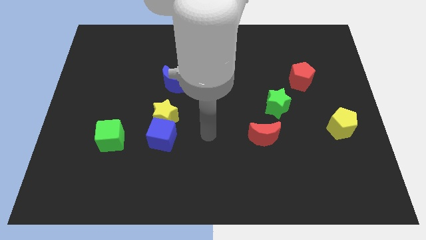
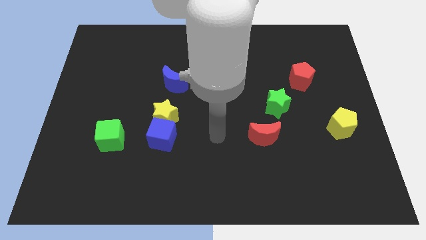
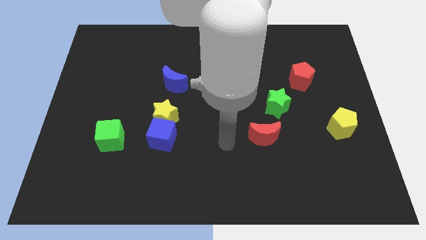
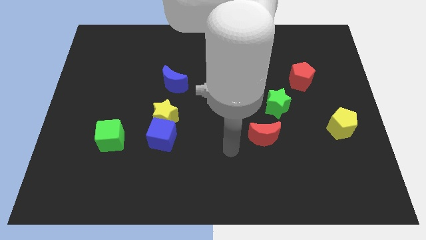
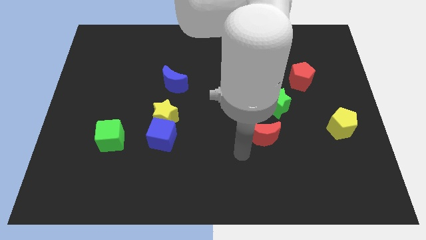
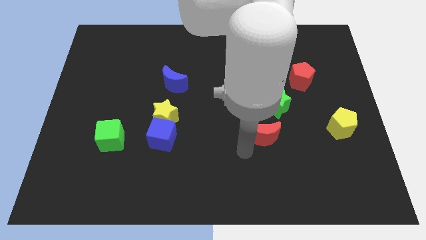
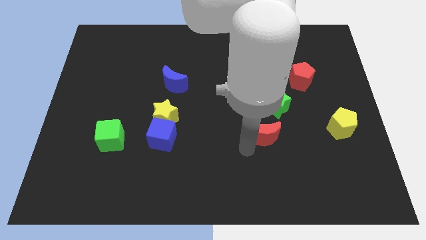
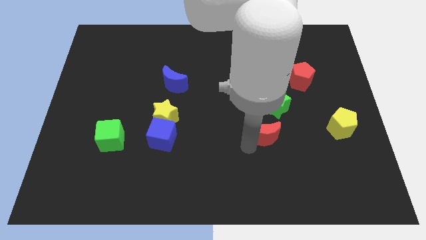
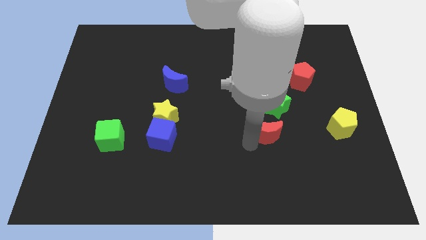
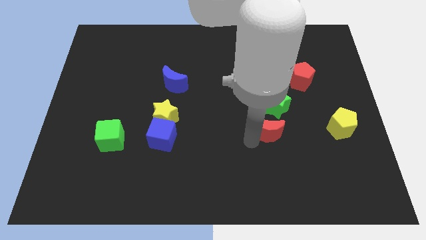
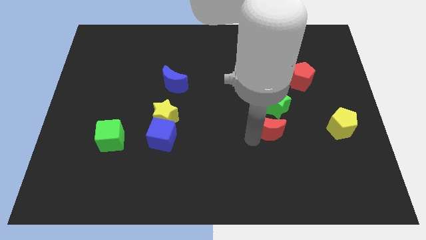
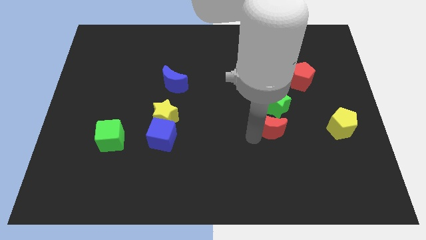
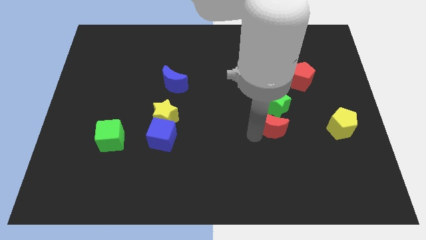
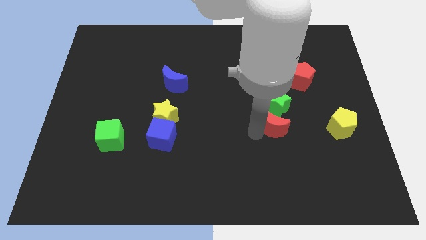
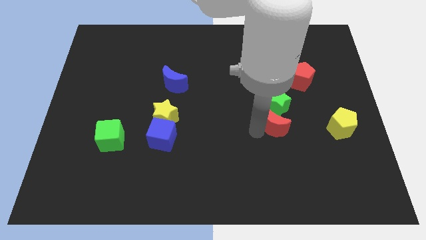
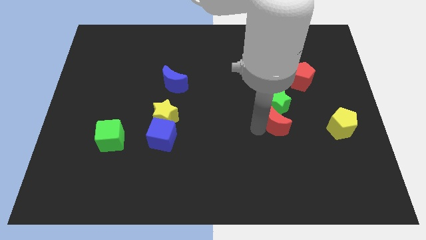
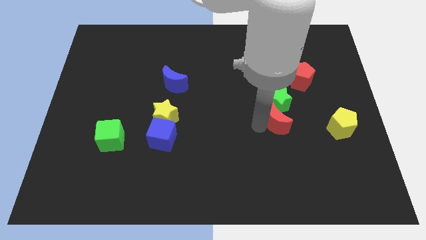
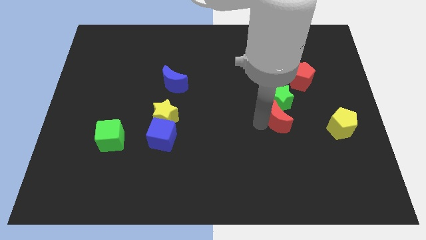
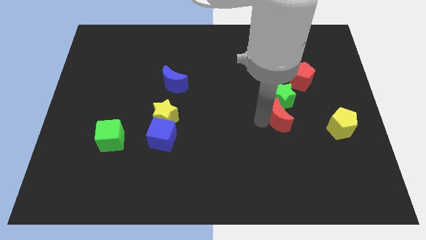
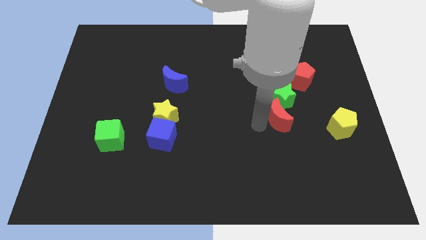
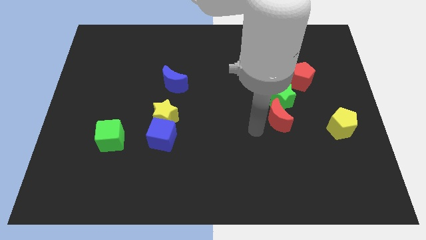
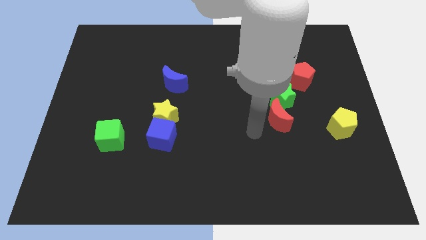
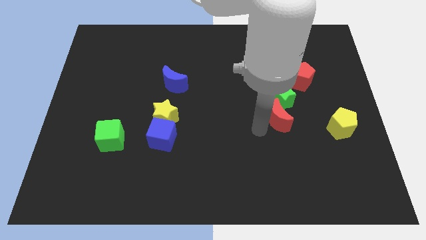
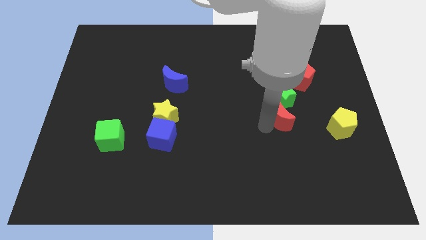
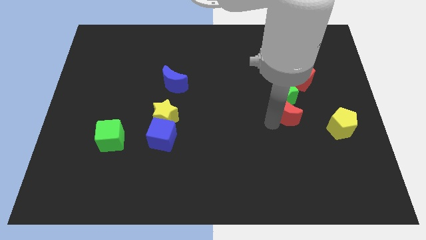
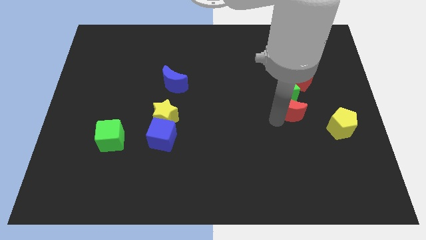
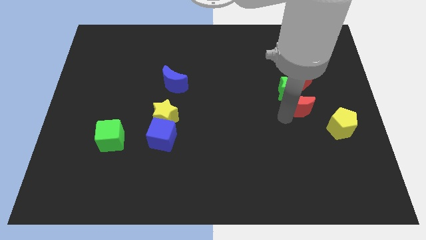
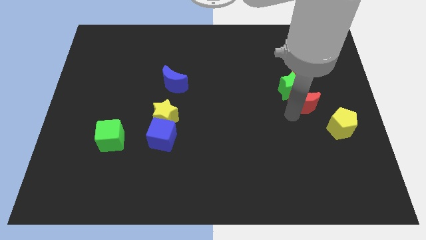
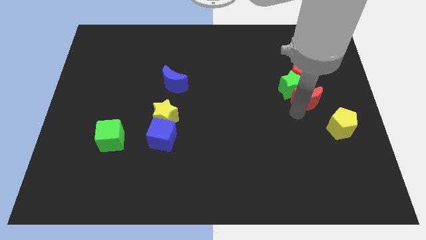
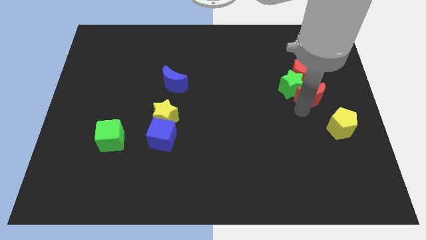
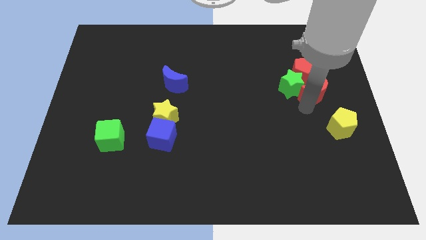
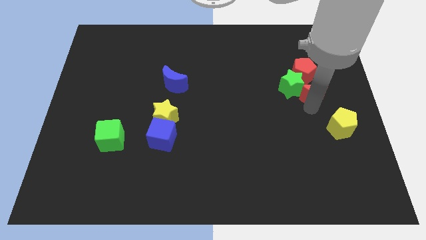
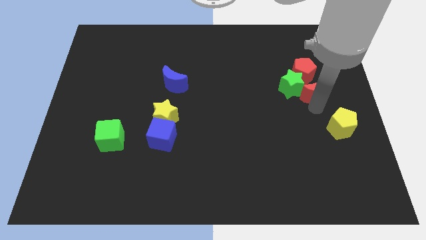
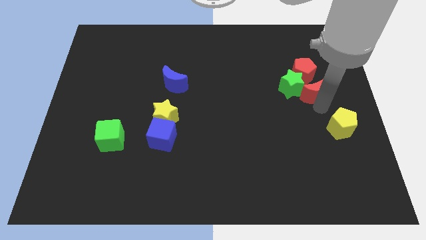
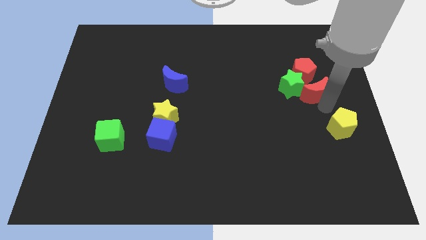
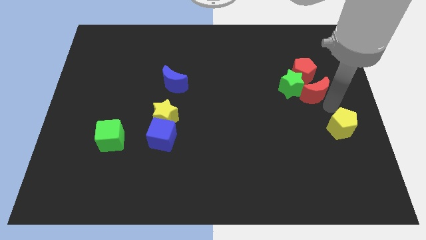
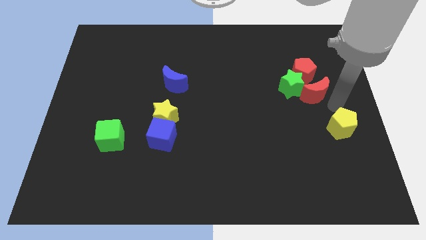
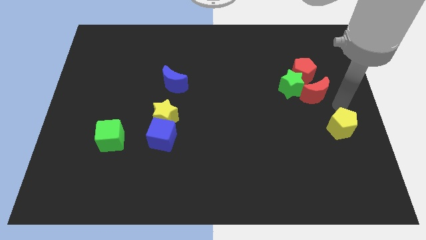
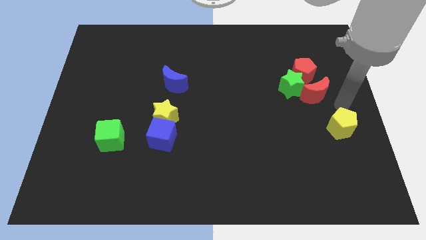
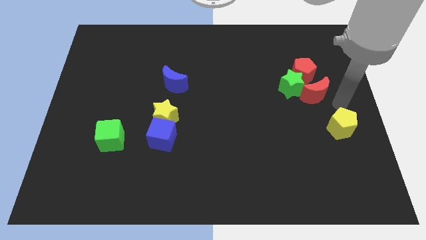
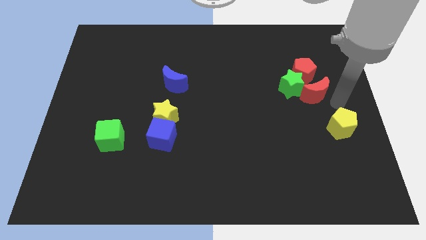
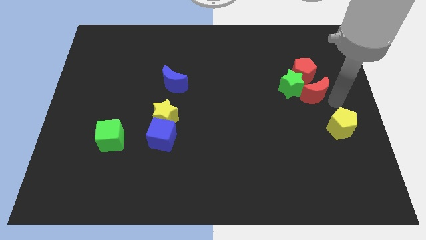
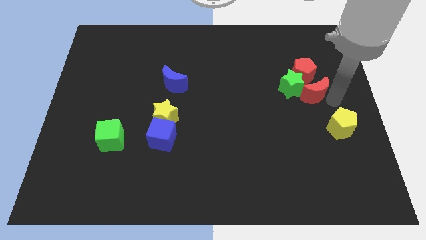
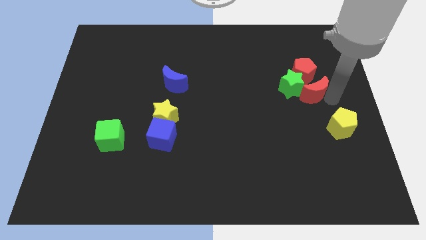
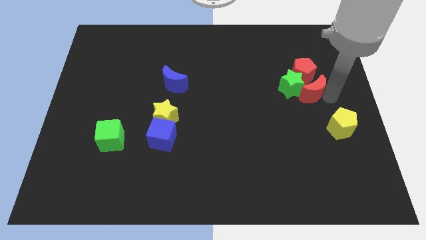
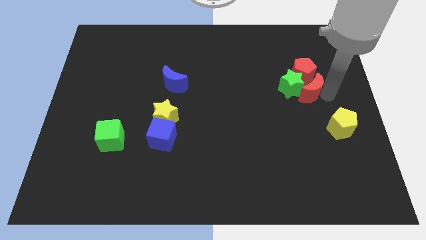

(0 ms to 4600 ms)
move the red moon next to the red pentagon

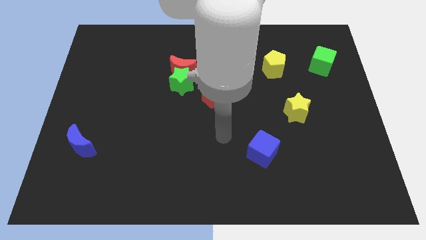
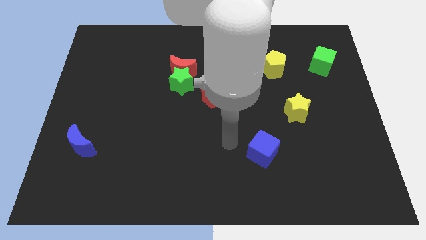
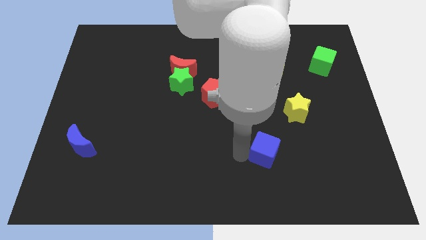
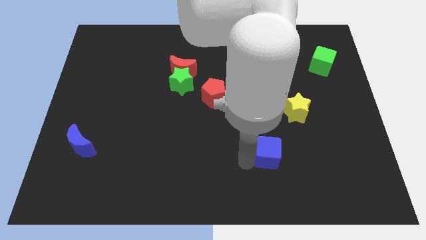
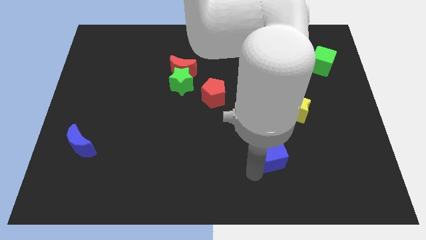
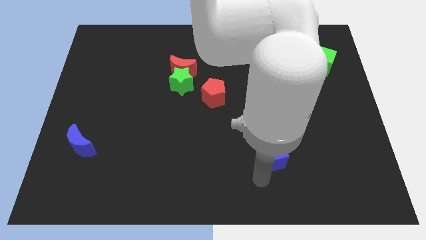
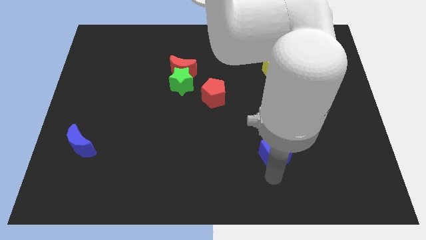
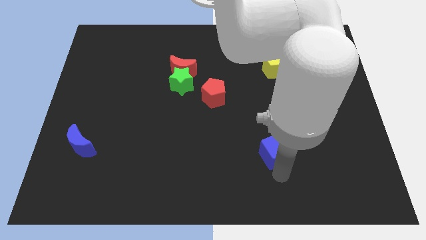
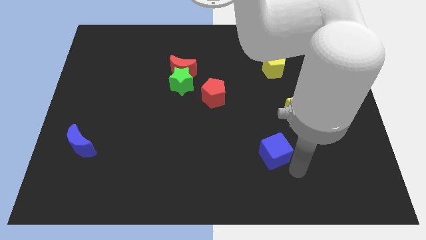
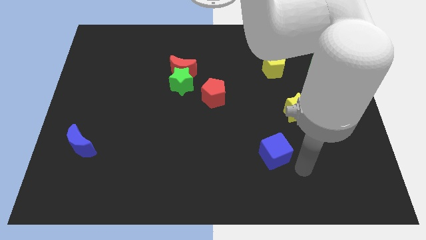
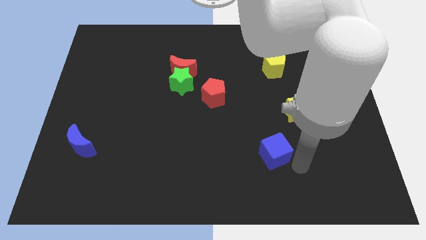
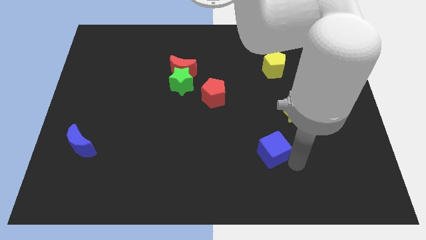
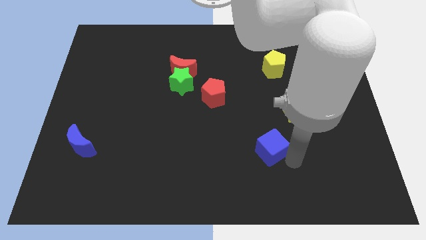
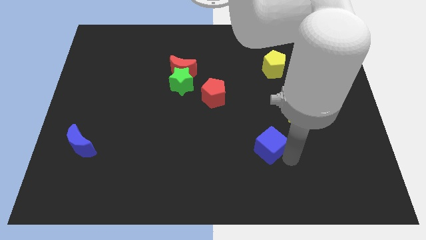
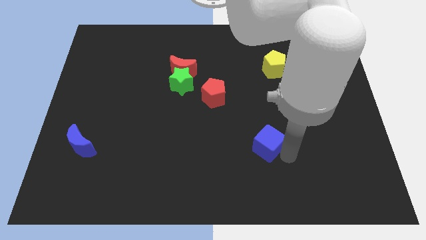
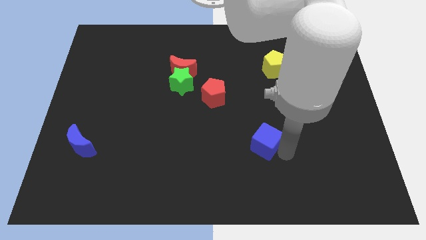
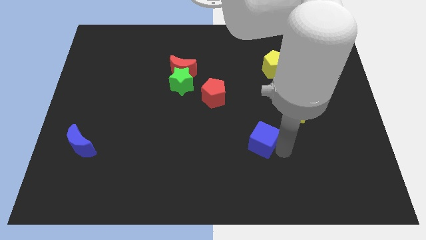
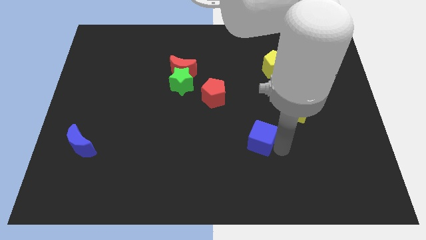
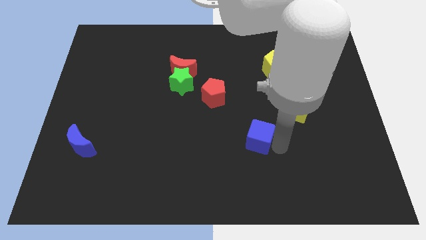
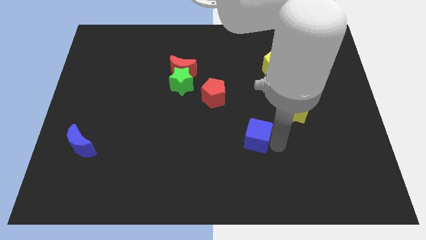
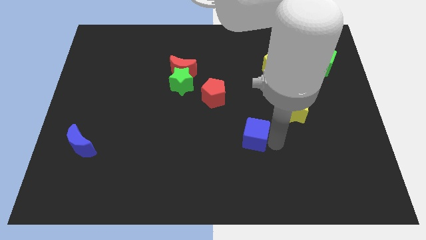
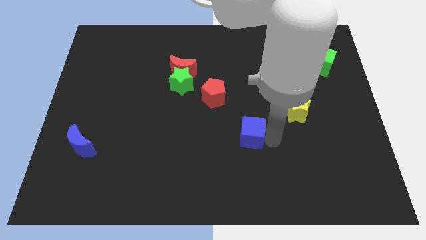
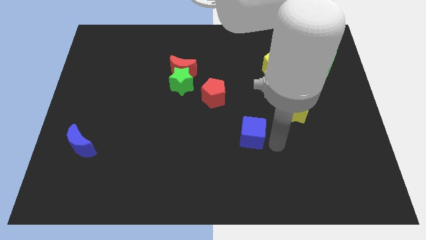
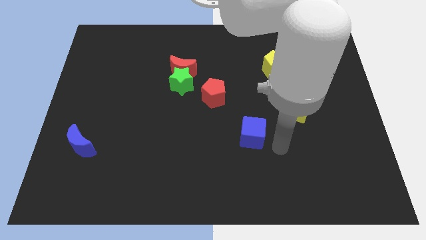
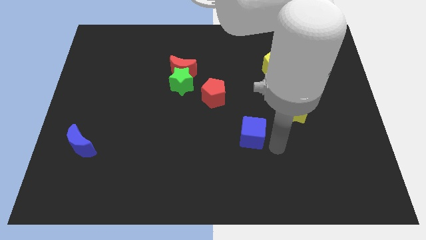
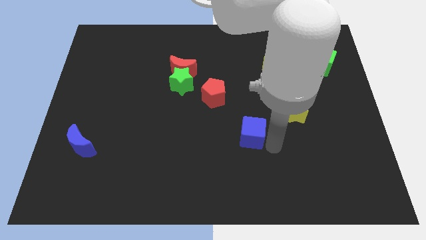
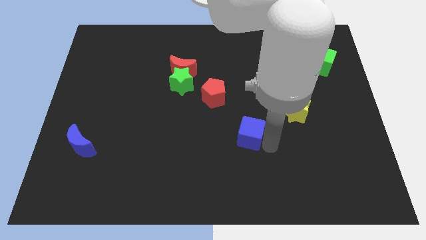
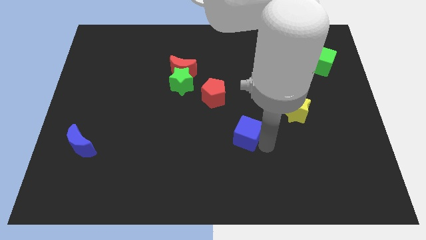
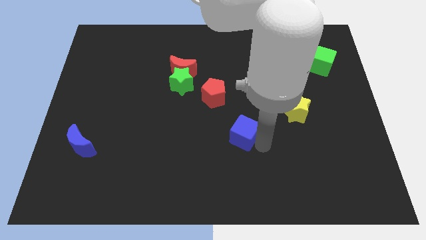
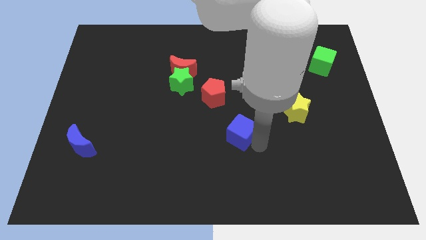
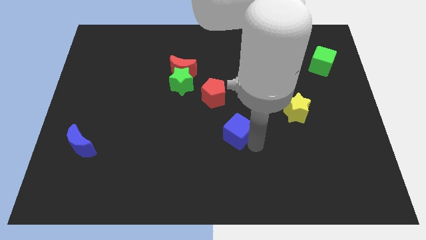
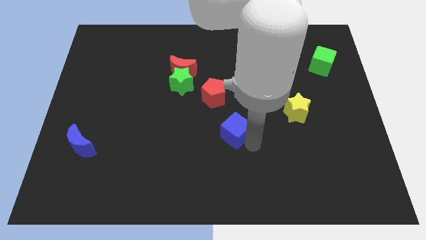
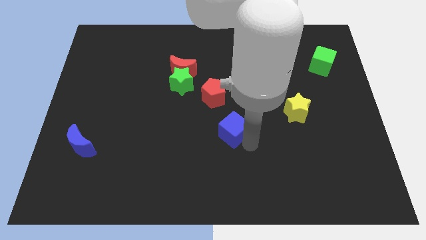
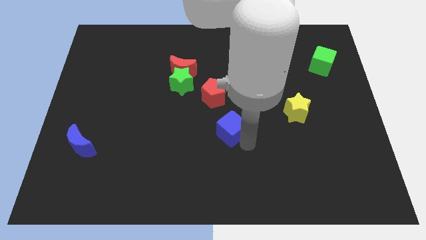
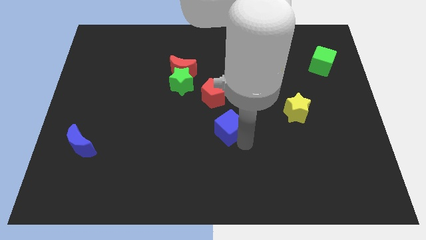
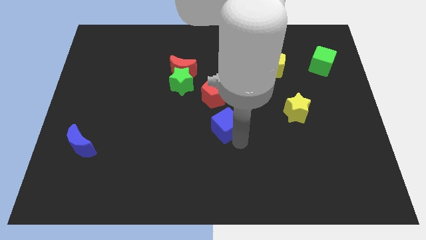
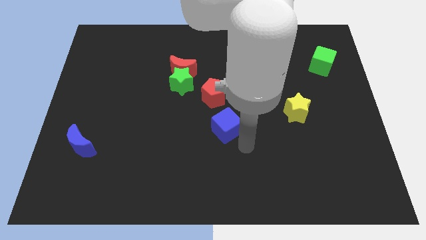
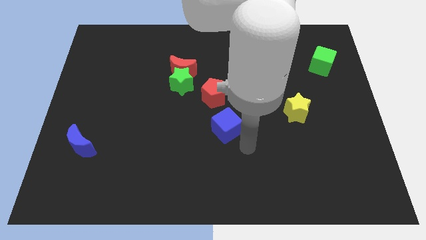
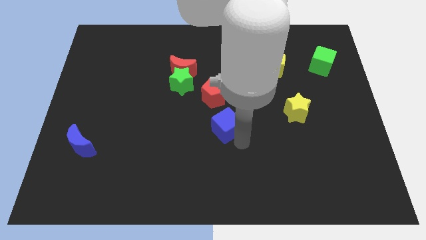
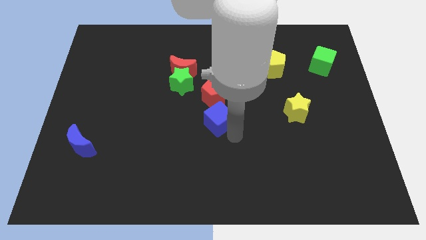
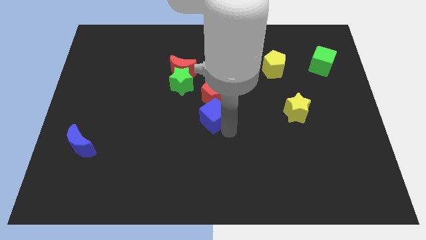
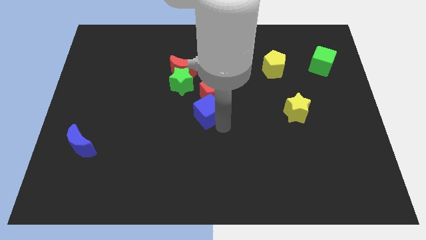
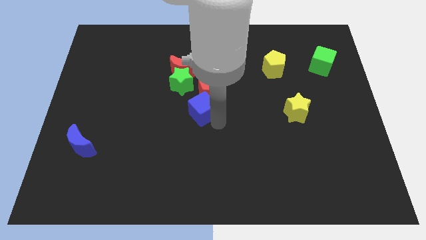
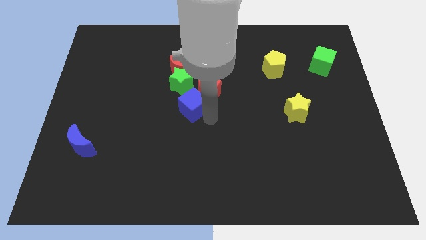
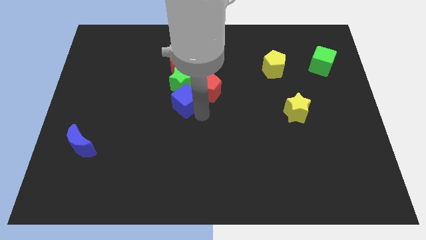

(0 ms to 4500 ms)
put the blue cube to the green star
